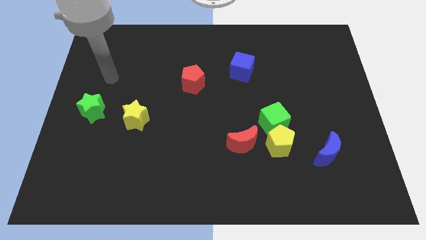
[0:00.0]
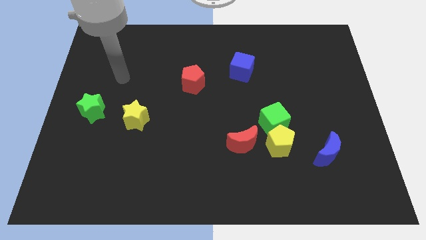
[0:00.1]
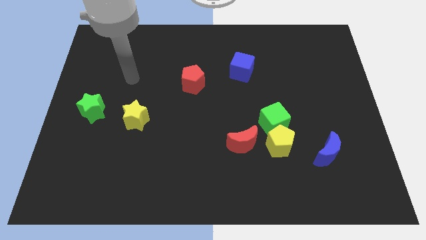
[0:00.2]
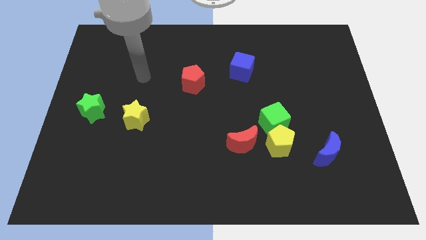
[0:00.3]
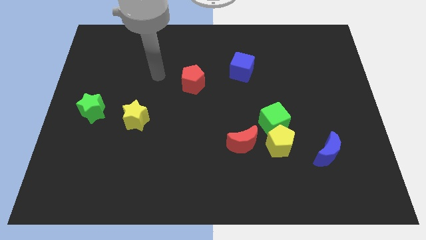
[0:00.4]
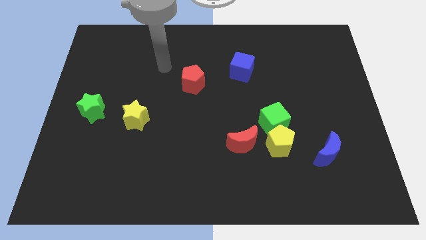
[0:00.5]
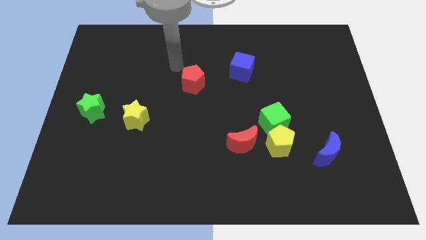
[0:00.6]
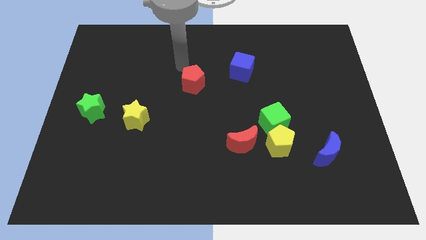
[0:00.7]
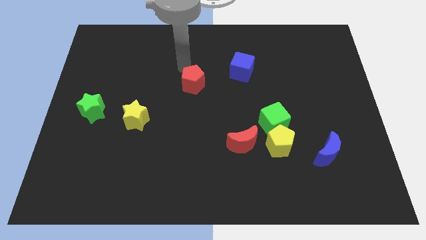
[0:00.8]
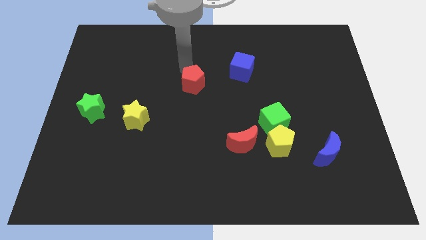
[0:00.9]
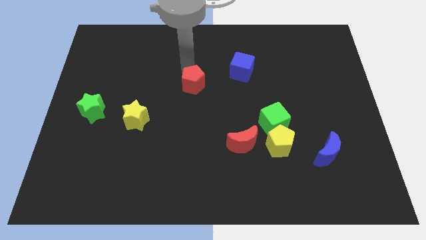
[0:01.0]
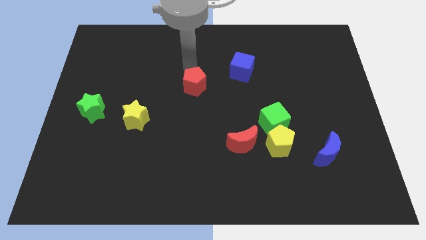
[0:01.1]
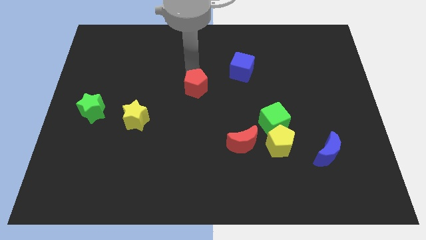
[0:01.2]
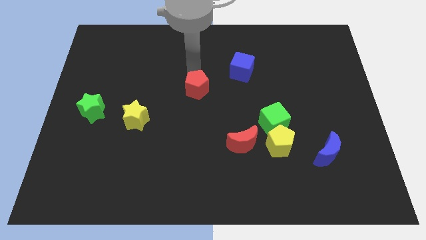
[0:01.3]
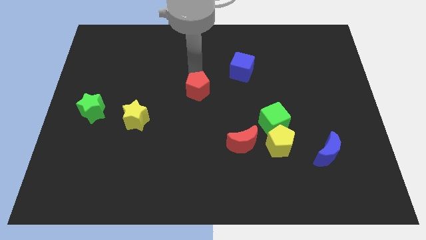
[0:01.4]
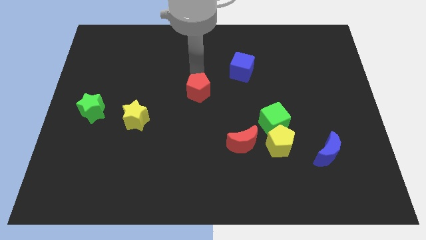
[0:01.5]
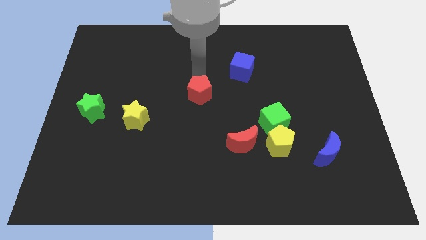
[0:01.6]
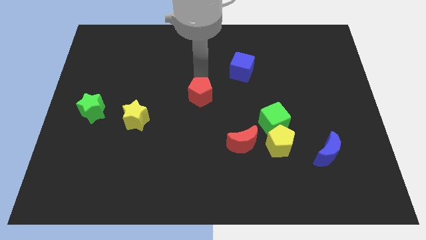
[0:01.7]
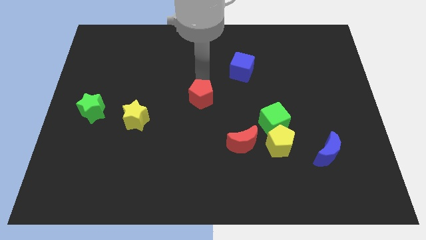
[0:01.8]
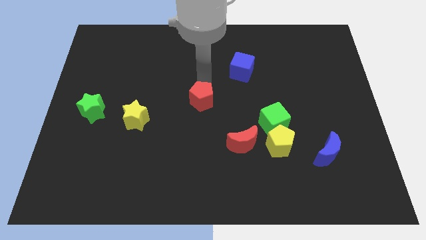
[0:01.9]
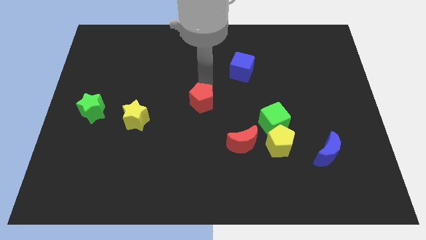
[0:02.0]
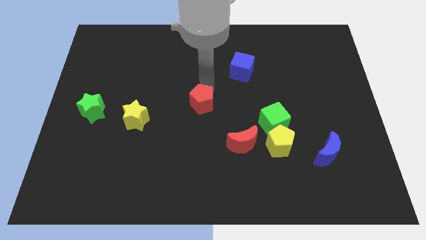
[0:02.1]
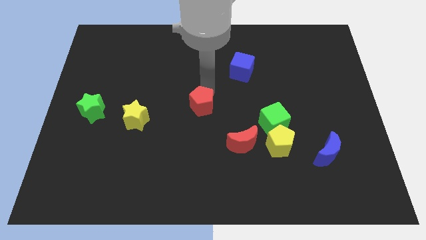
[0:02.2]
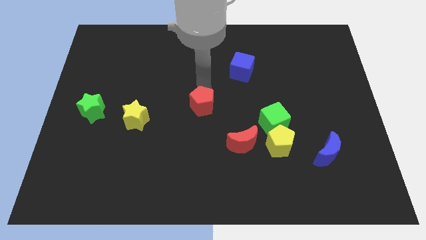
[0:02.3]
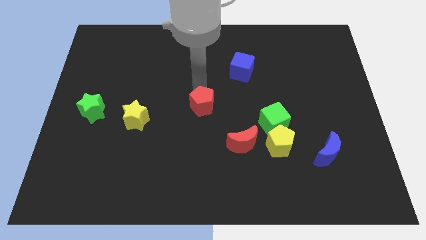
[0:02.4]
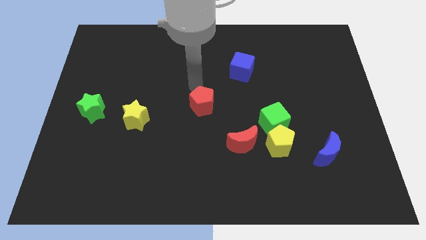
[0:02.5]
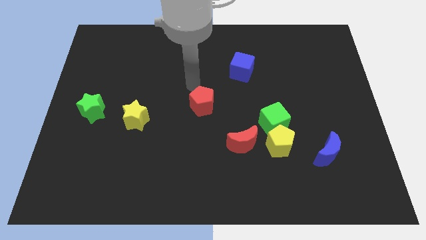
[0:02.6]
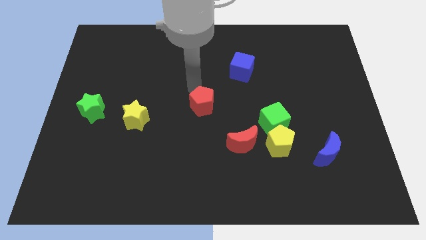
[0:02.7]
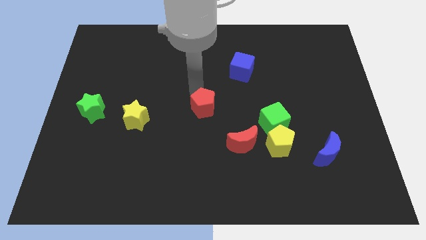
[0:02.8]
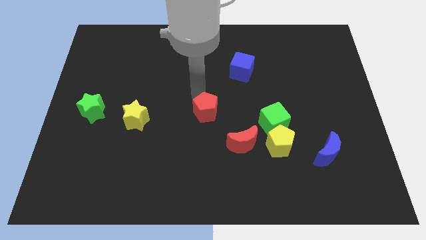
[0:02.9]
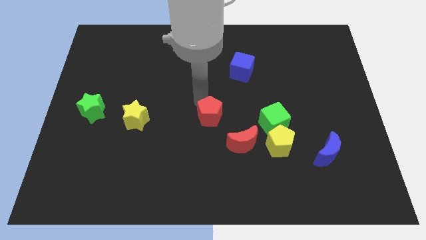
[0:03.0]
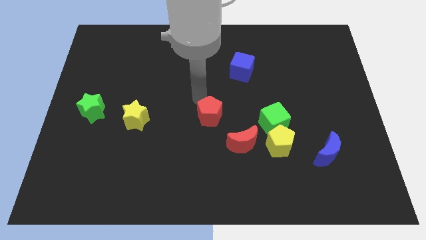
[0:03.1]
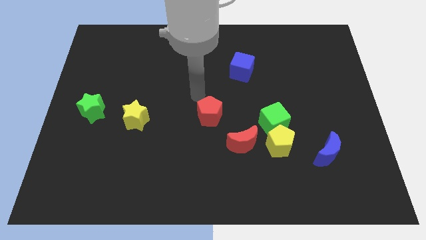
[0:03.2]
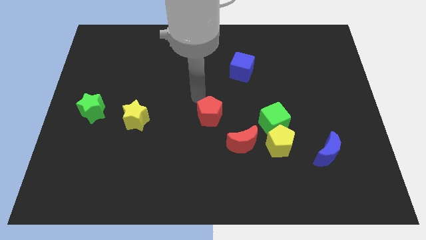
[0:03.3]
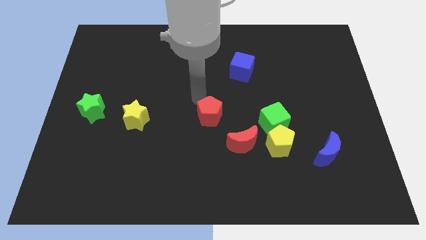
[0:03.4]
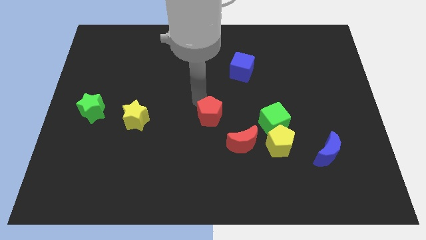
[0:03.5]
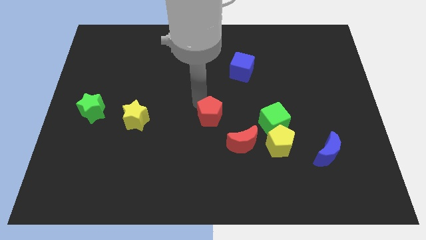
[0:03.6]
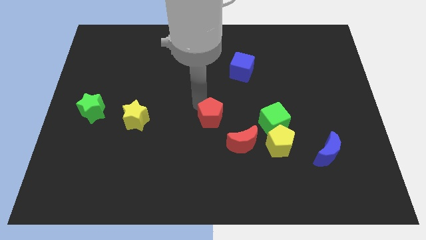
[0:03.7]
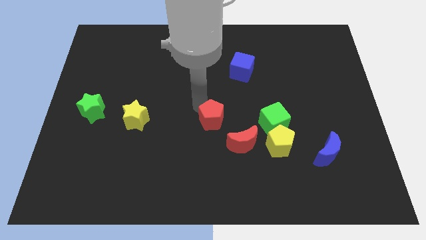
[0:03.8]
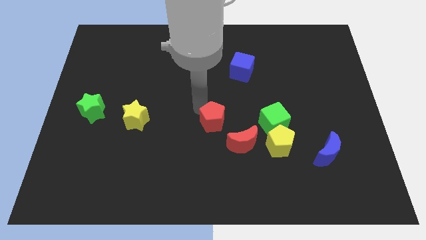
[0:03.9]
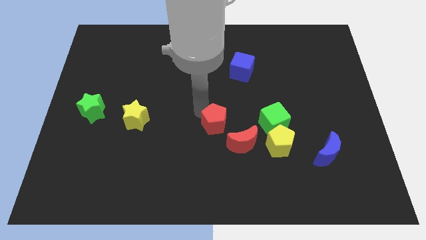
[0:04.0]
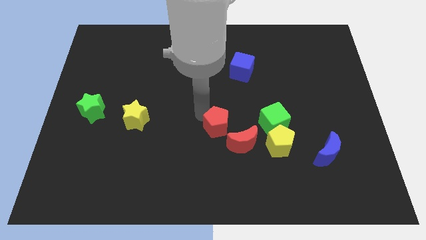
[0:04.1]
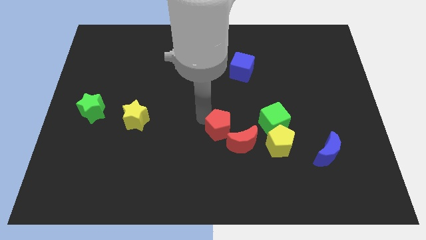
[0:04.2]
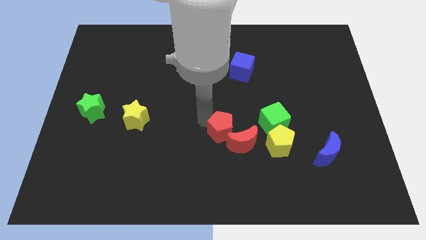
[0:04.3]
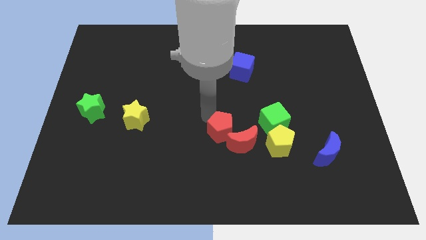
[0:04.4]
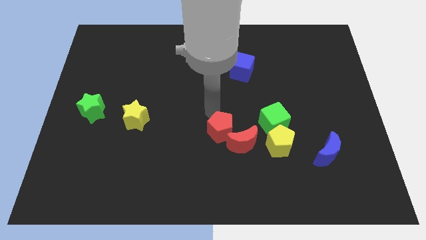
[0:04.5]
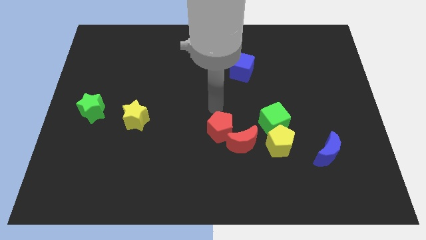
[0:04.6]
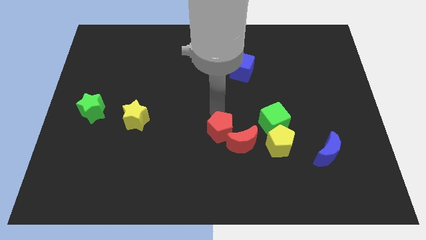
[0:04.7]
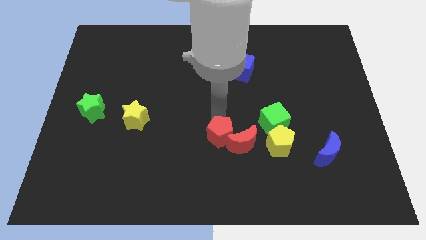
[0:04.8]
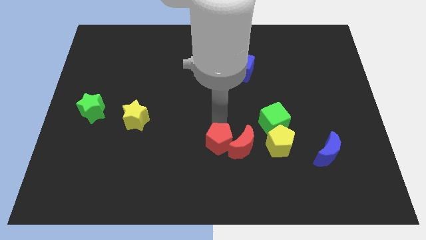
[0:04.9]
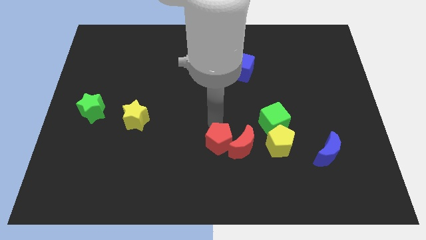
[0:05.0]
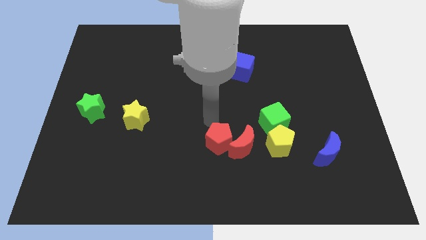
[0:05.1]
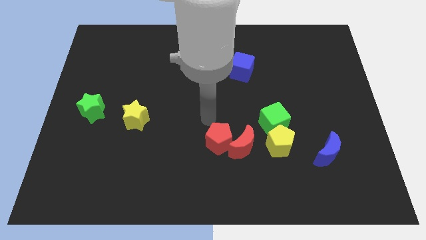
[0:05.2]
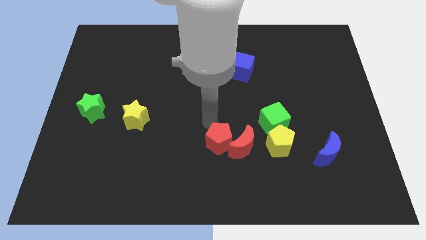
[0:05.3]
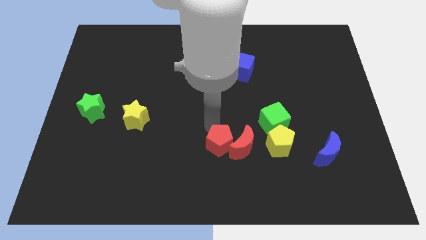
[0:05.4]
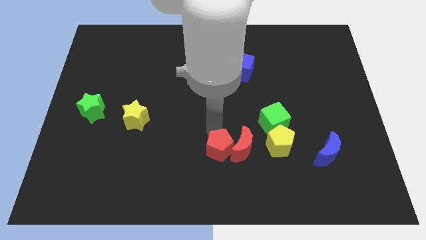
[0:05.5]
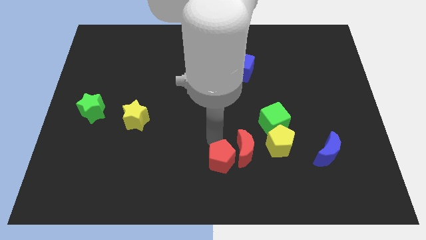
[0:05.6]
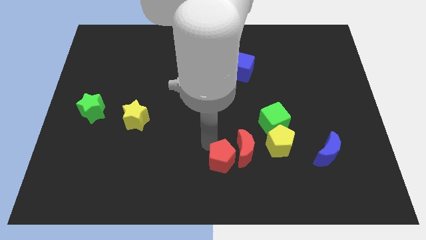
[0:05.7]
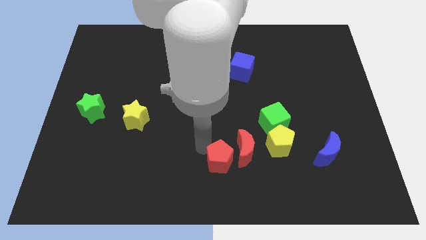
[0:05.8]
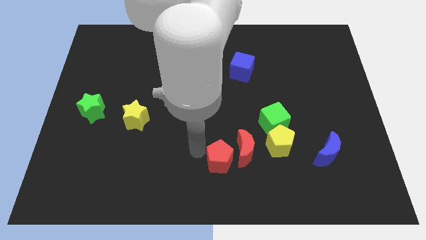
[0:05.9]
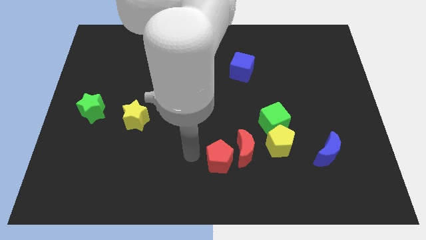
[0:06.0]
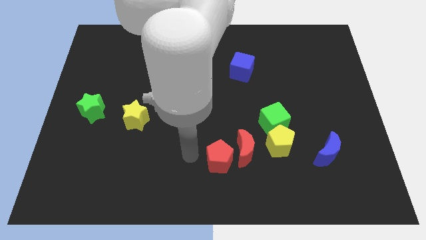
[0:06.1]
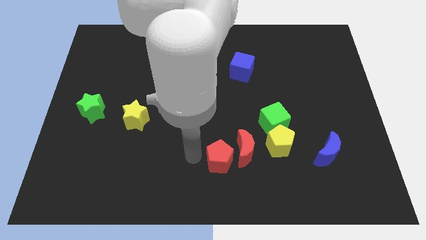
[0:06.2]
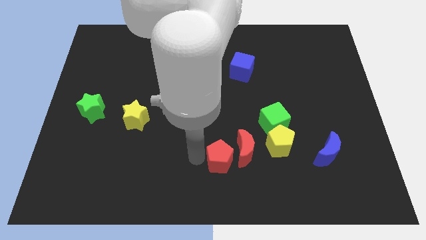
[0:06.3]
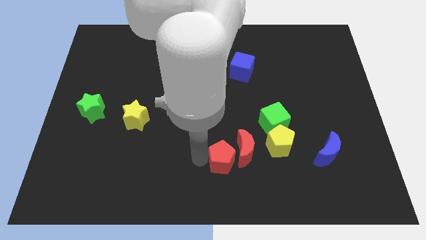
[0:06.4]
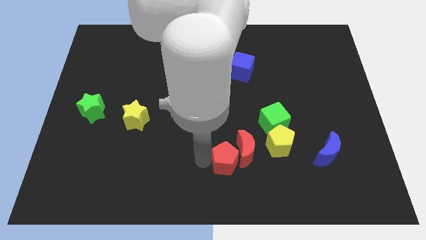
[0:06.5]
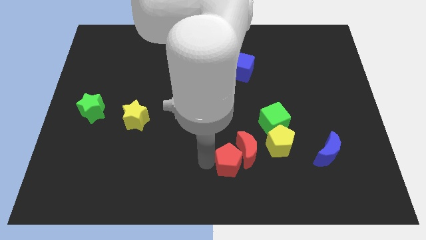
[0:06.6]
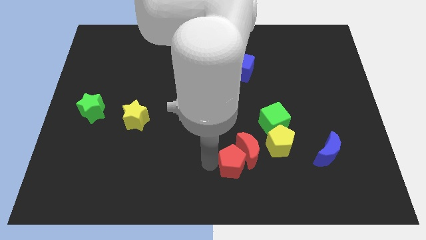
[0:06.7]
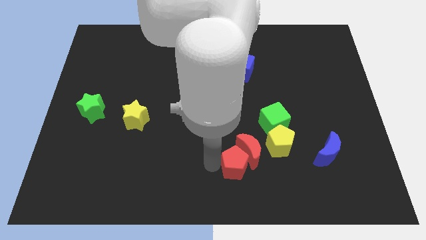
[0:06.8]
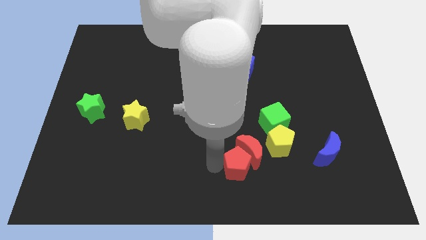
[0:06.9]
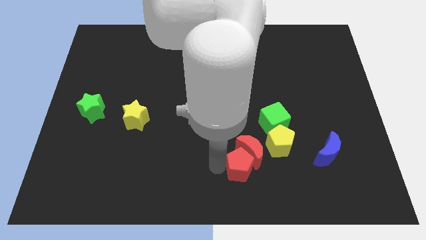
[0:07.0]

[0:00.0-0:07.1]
move the red pentagon downwards and right

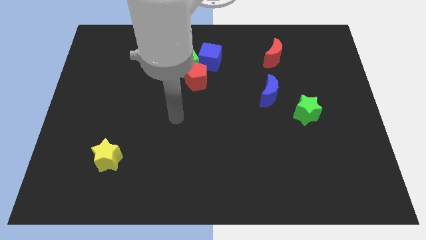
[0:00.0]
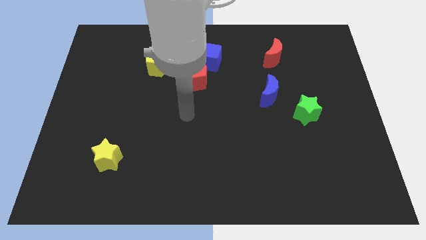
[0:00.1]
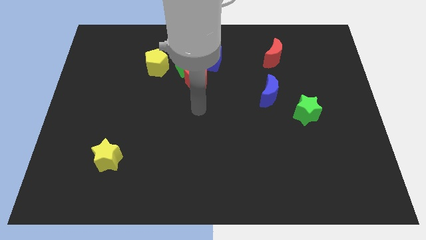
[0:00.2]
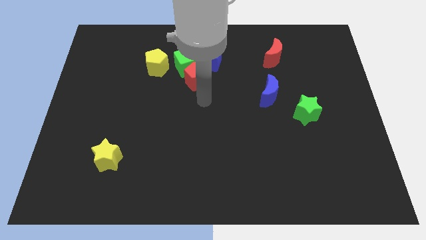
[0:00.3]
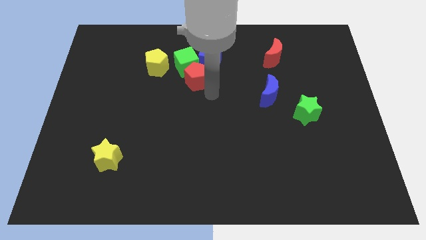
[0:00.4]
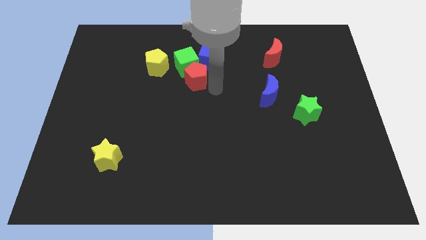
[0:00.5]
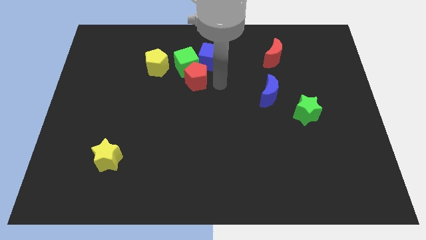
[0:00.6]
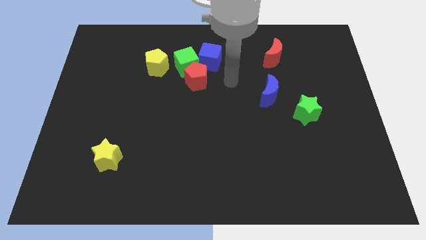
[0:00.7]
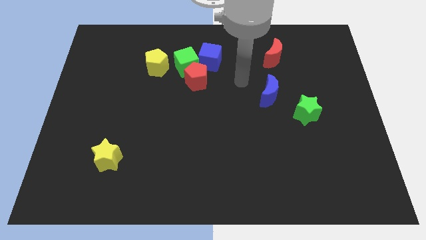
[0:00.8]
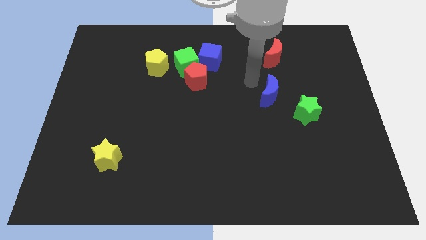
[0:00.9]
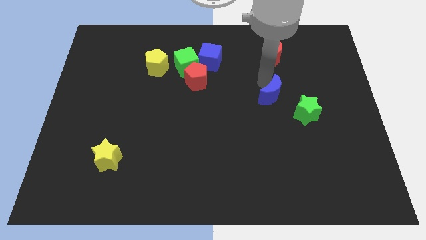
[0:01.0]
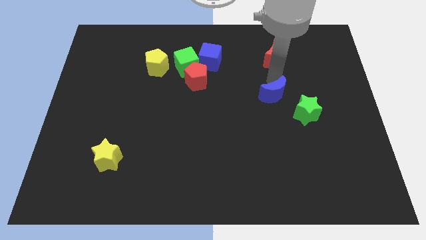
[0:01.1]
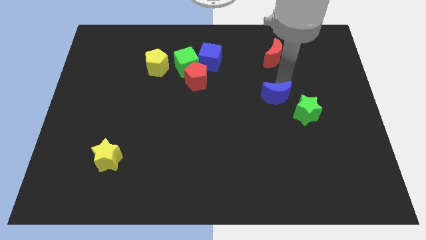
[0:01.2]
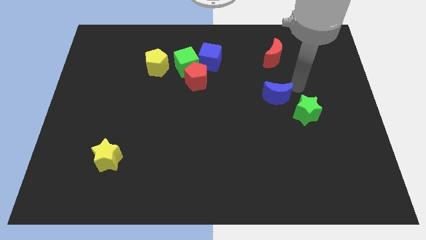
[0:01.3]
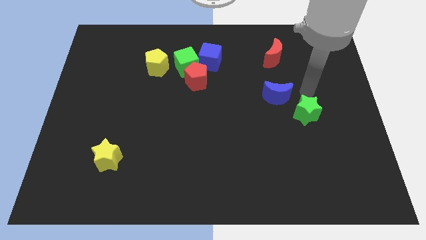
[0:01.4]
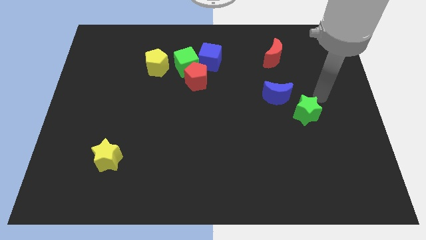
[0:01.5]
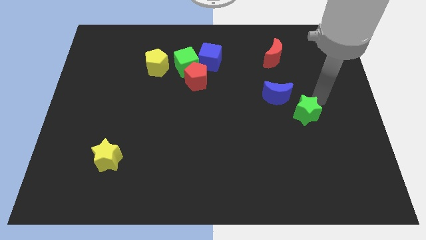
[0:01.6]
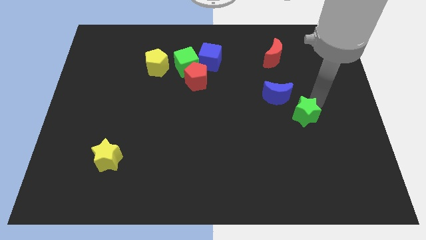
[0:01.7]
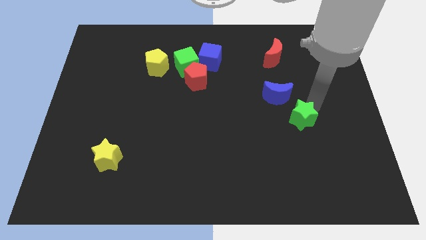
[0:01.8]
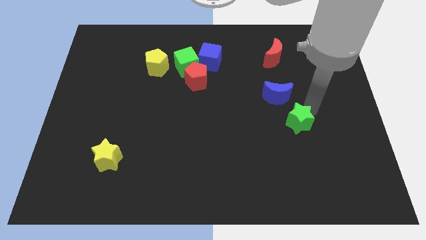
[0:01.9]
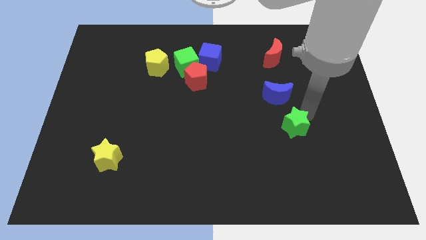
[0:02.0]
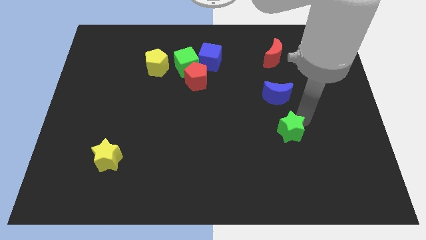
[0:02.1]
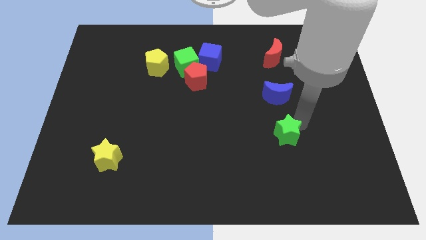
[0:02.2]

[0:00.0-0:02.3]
move the green star slightly diagonally downwards and left
